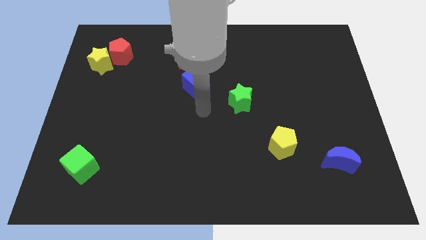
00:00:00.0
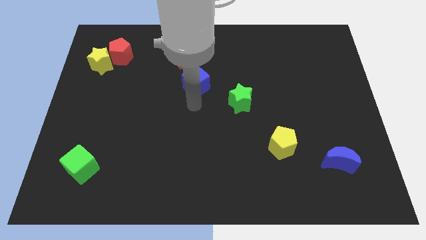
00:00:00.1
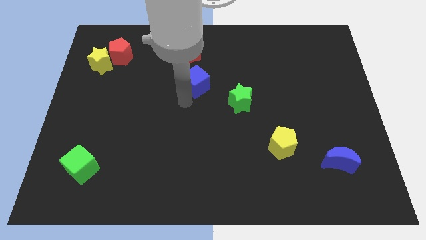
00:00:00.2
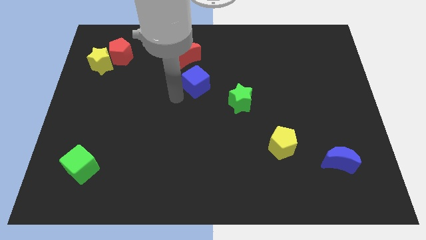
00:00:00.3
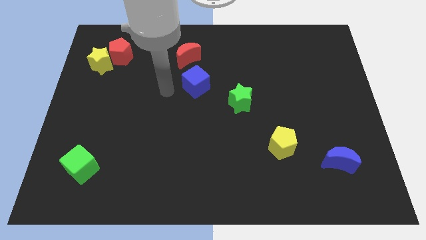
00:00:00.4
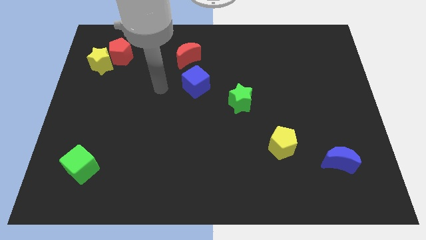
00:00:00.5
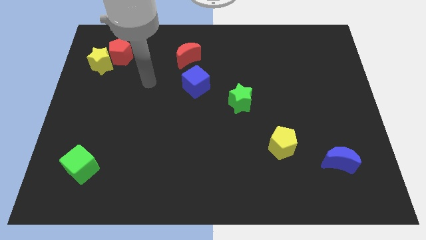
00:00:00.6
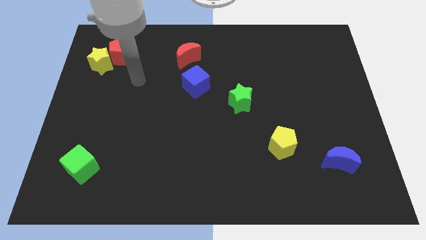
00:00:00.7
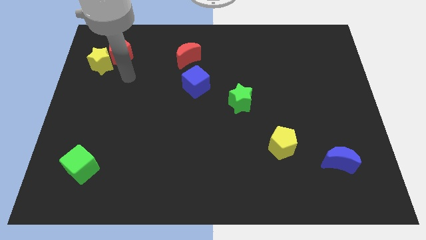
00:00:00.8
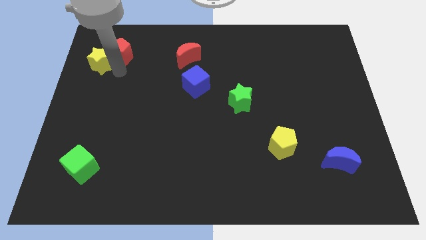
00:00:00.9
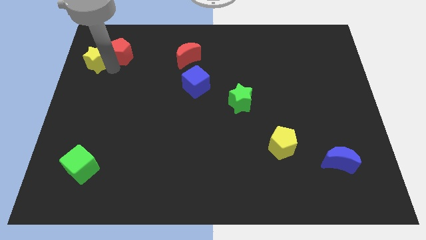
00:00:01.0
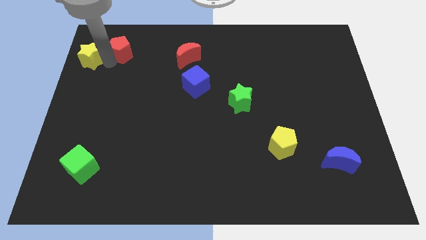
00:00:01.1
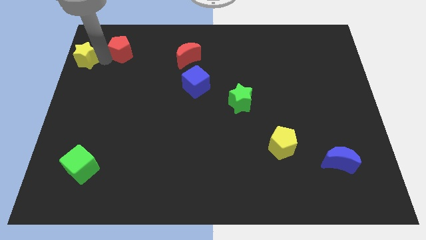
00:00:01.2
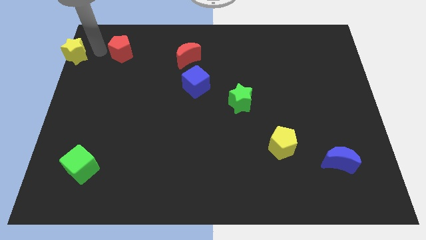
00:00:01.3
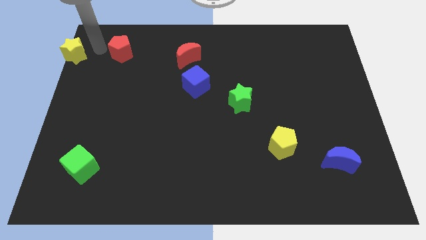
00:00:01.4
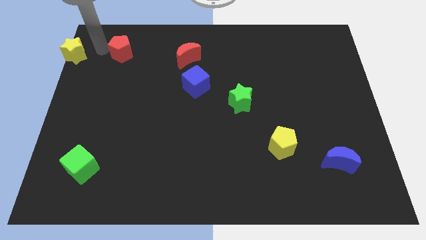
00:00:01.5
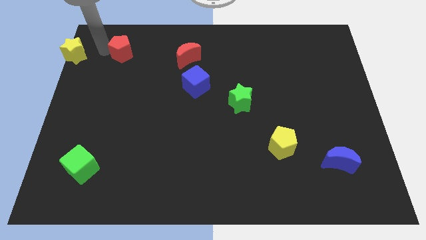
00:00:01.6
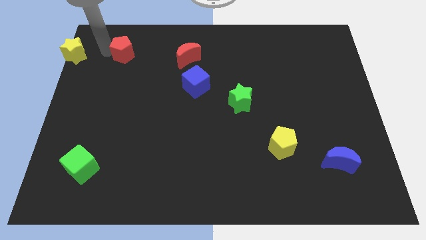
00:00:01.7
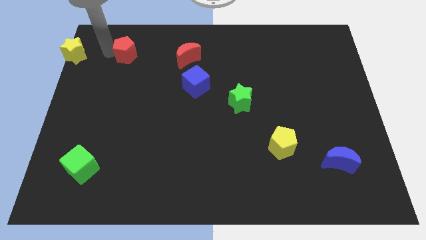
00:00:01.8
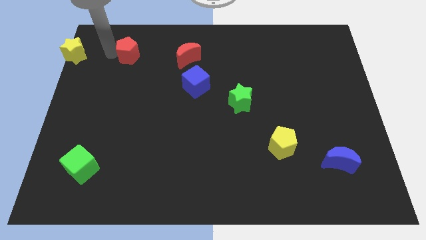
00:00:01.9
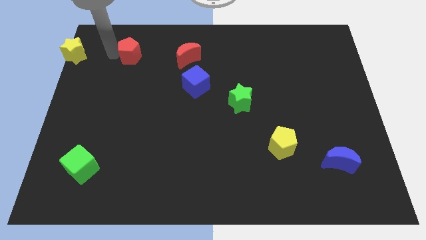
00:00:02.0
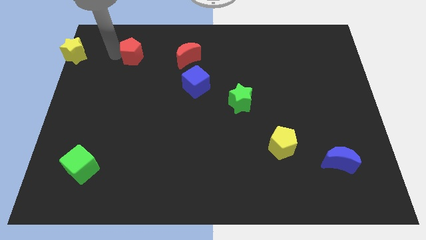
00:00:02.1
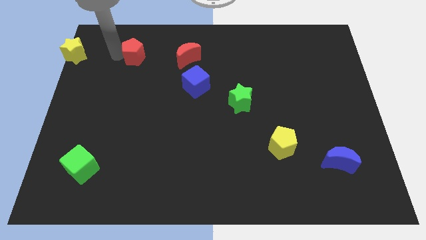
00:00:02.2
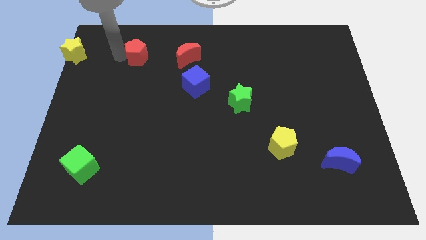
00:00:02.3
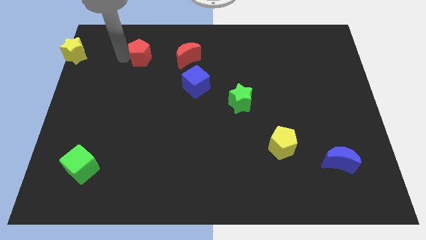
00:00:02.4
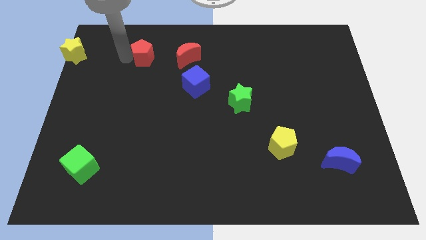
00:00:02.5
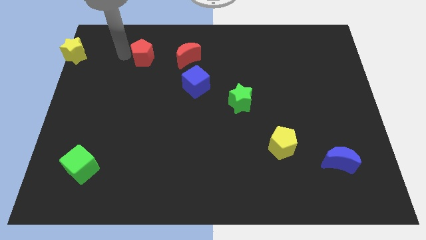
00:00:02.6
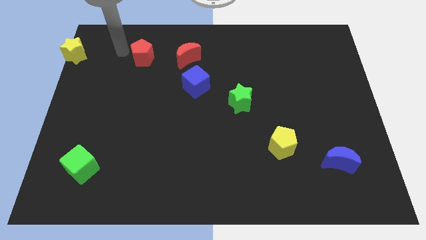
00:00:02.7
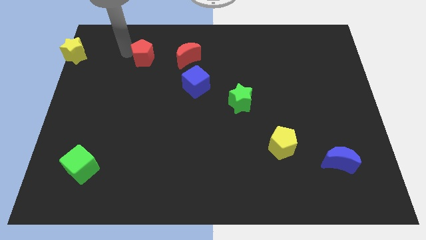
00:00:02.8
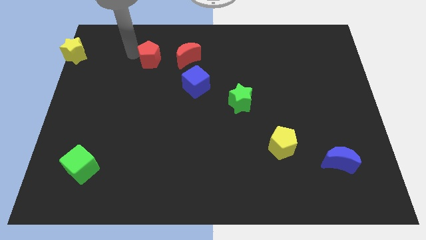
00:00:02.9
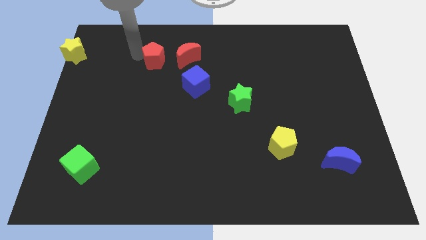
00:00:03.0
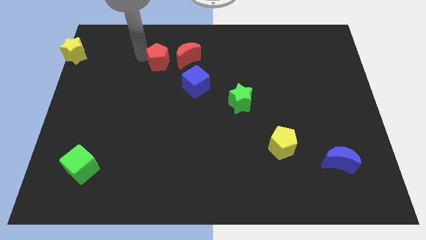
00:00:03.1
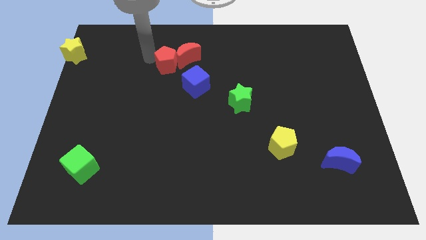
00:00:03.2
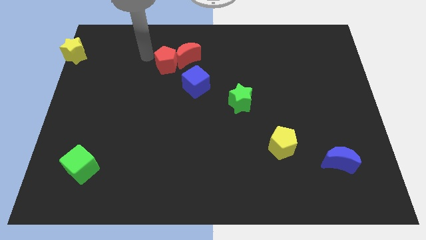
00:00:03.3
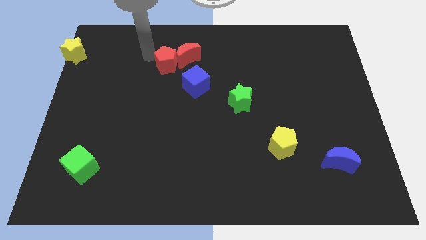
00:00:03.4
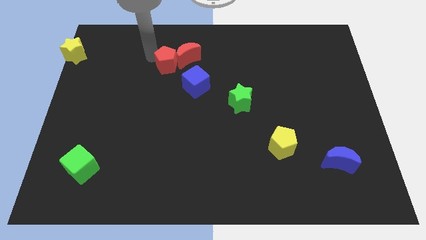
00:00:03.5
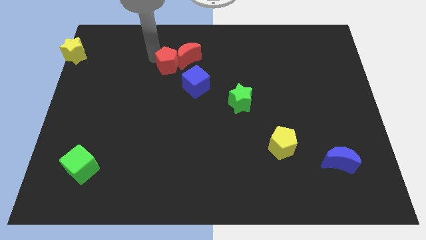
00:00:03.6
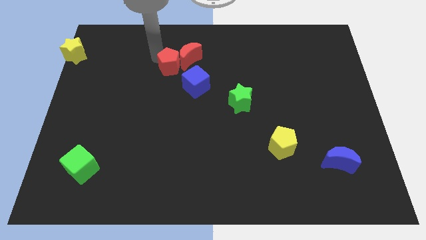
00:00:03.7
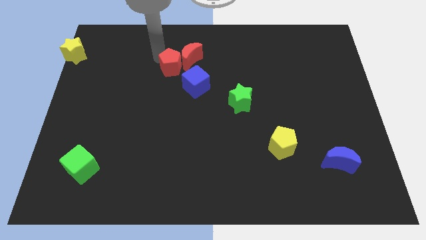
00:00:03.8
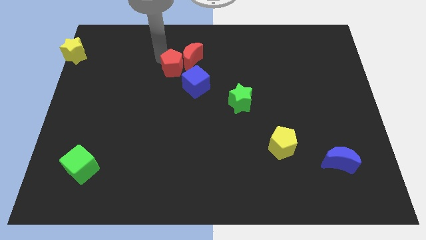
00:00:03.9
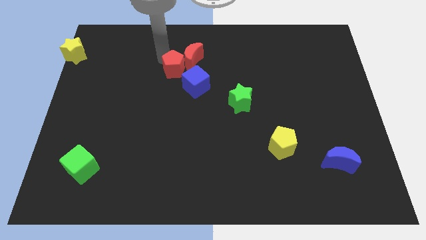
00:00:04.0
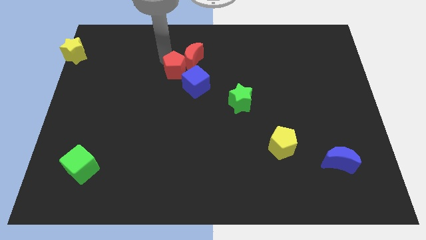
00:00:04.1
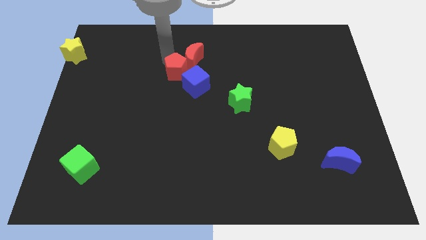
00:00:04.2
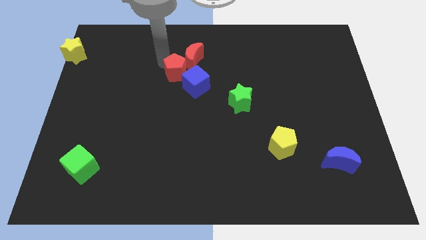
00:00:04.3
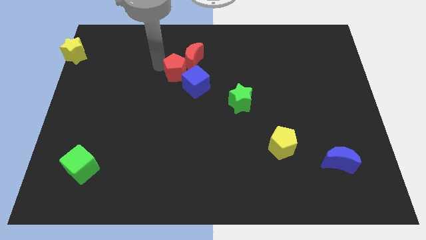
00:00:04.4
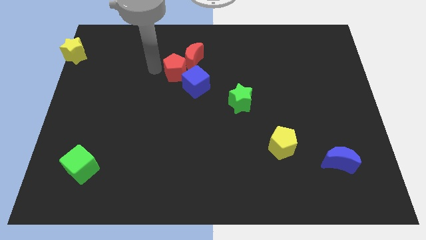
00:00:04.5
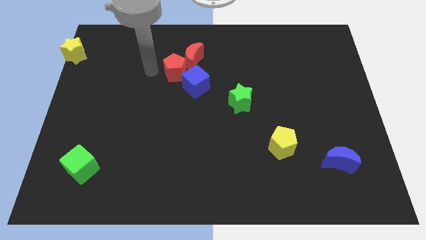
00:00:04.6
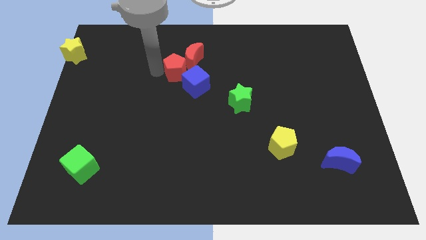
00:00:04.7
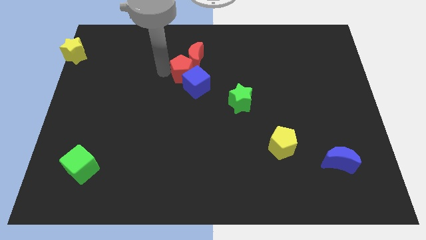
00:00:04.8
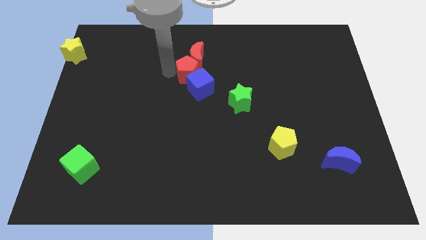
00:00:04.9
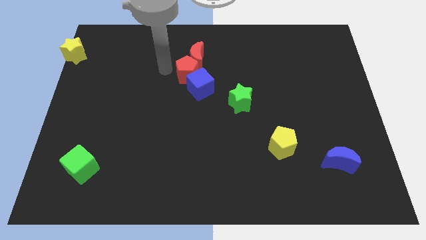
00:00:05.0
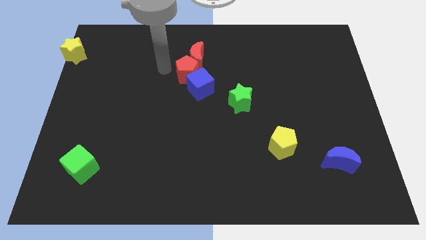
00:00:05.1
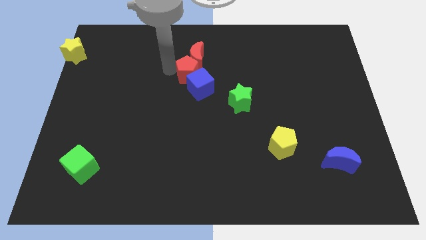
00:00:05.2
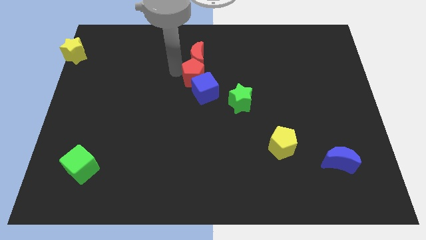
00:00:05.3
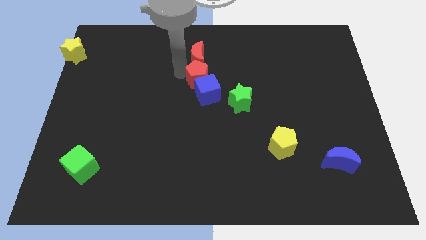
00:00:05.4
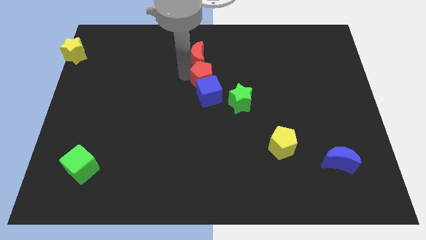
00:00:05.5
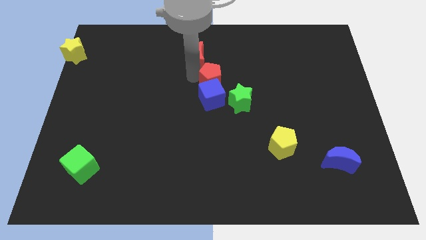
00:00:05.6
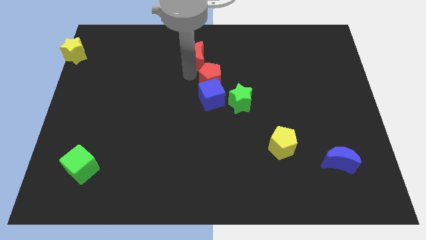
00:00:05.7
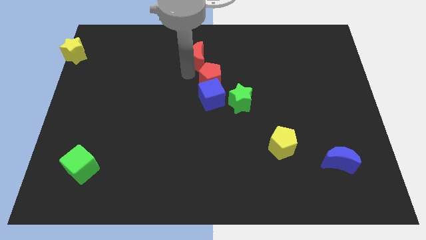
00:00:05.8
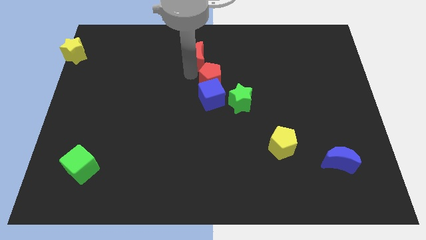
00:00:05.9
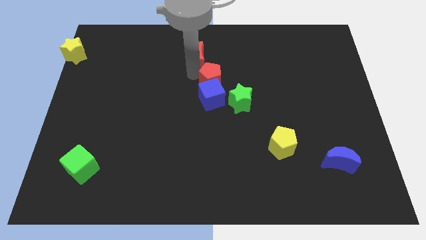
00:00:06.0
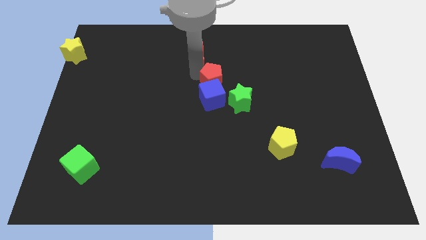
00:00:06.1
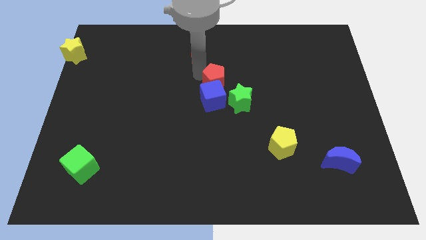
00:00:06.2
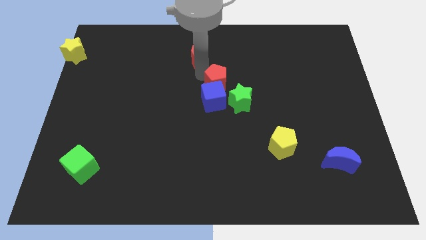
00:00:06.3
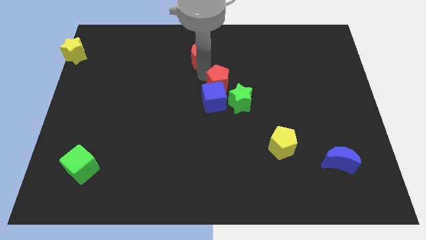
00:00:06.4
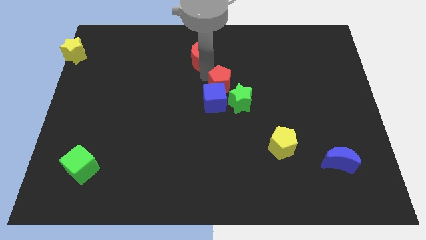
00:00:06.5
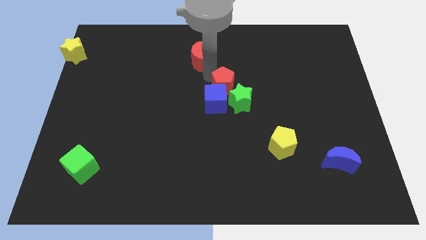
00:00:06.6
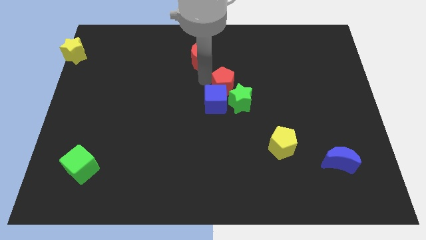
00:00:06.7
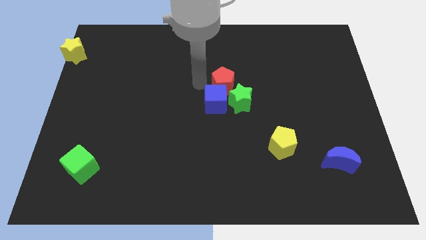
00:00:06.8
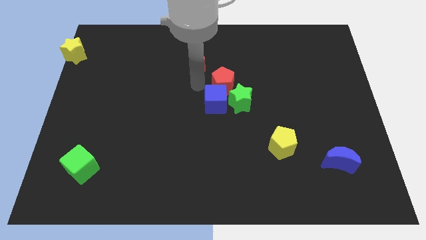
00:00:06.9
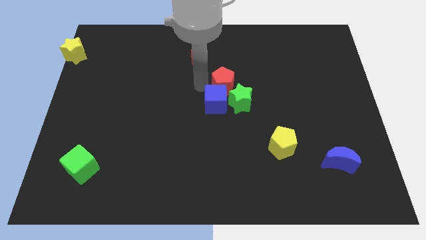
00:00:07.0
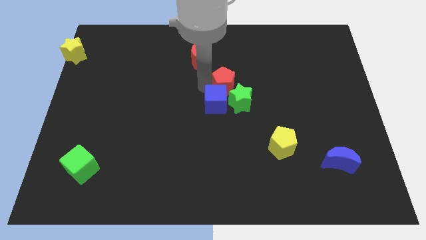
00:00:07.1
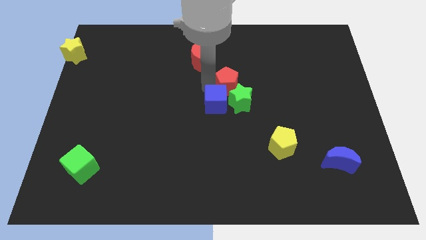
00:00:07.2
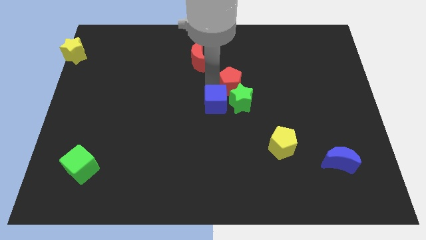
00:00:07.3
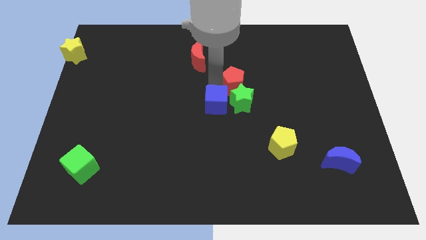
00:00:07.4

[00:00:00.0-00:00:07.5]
push the red pentagon diagonally up and to the right of the green star
